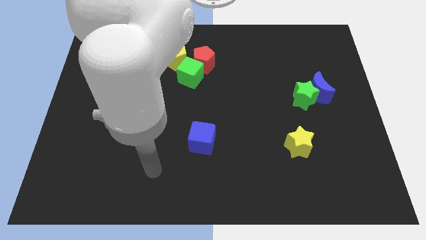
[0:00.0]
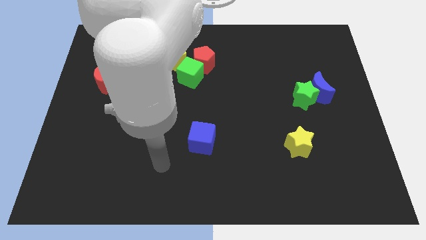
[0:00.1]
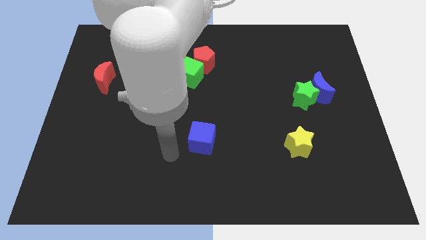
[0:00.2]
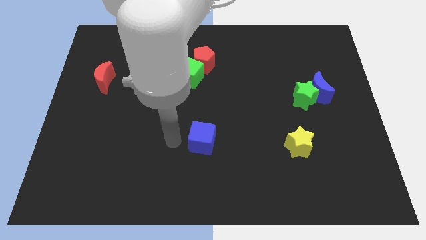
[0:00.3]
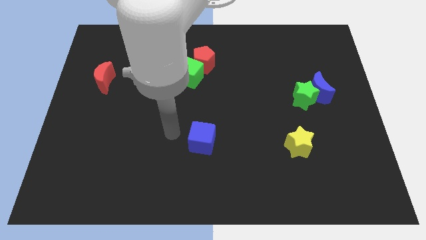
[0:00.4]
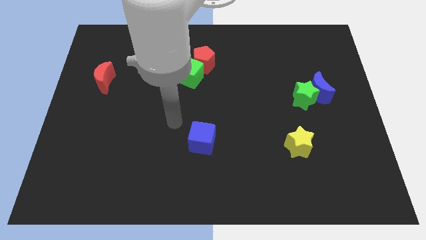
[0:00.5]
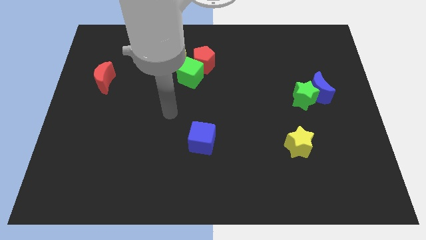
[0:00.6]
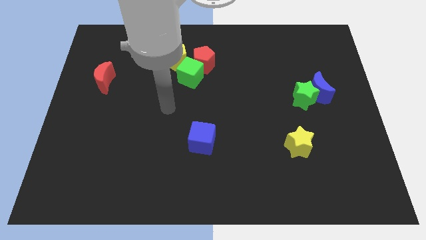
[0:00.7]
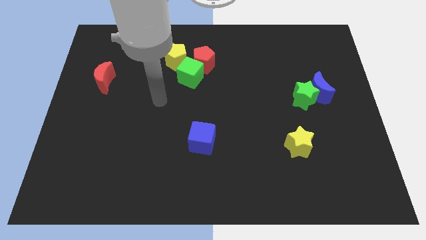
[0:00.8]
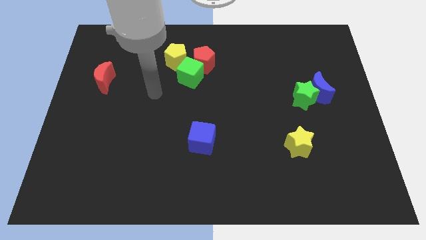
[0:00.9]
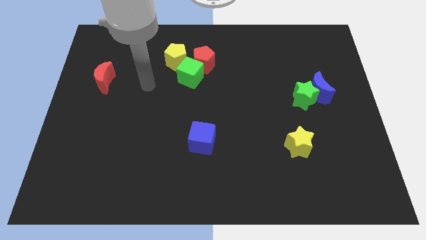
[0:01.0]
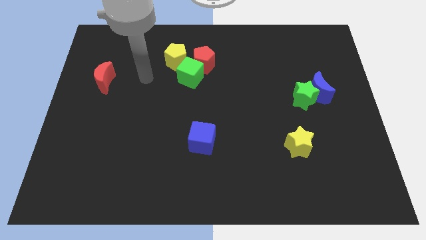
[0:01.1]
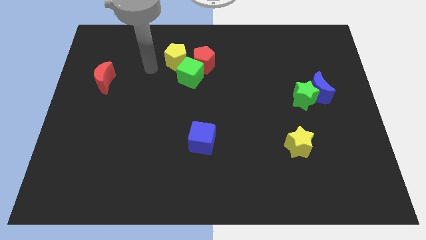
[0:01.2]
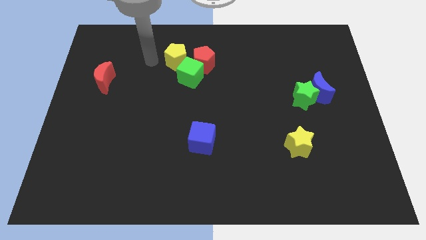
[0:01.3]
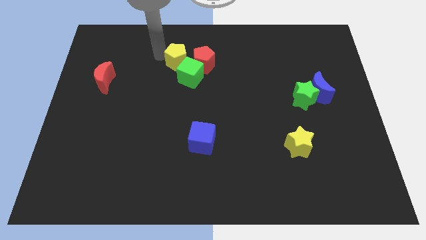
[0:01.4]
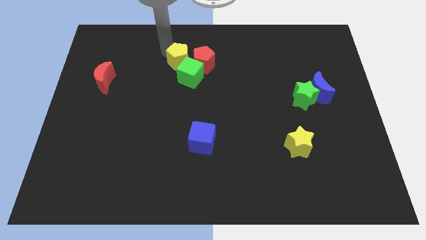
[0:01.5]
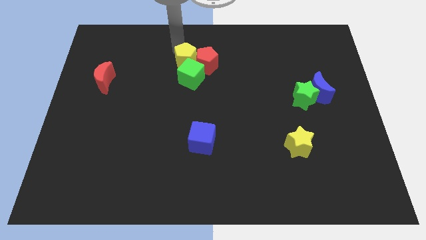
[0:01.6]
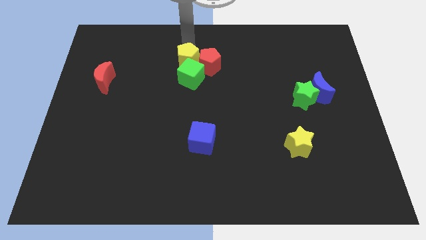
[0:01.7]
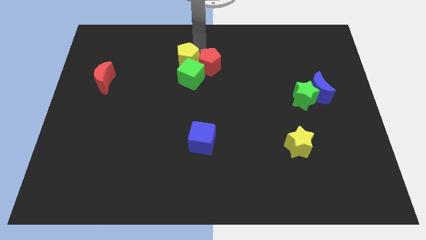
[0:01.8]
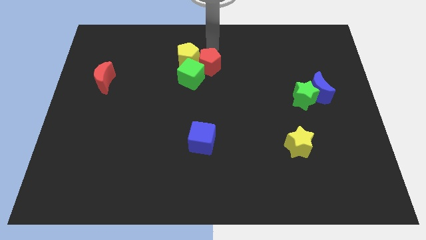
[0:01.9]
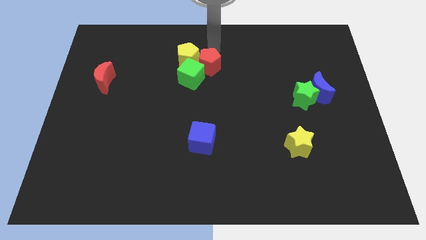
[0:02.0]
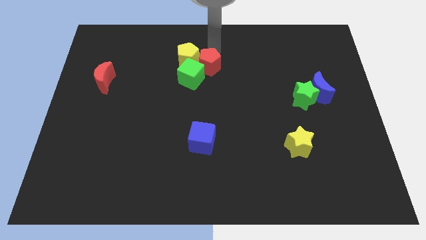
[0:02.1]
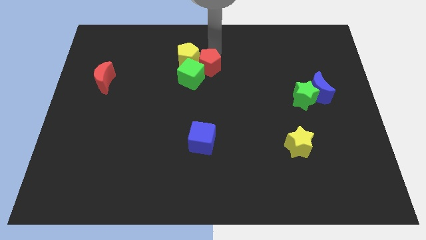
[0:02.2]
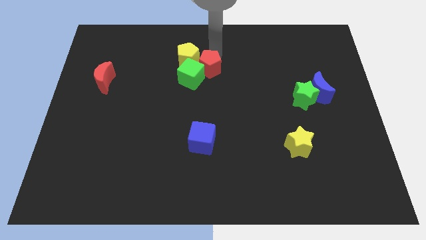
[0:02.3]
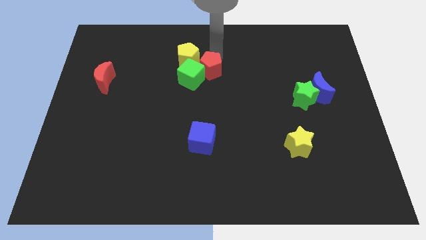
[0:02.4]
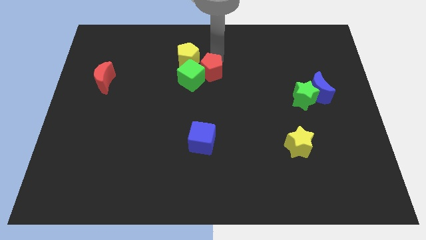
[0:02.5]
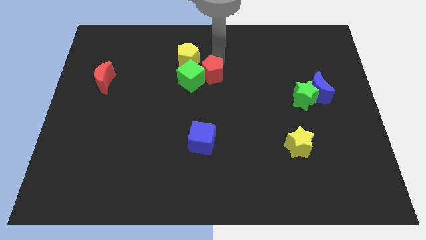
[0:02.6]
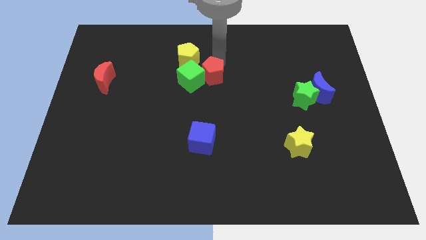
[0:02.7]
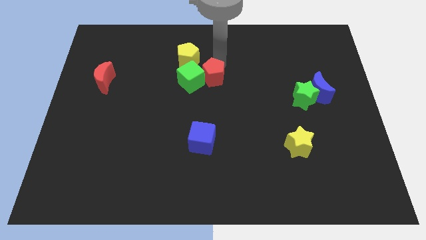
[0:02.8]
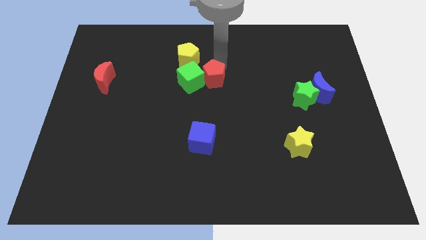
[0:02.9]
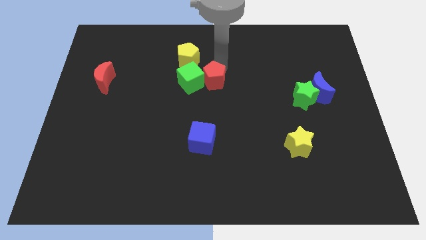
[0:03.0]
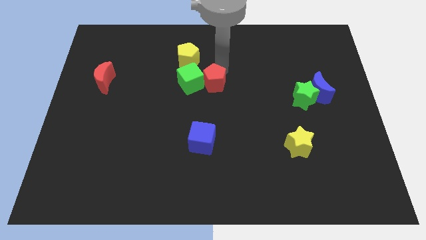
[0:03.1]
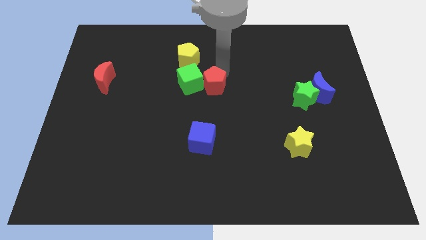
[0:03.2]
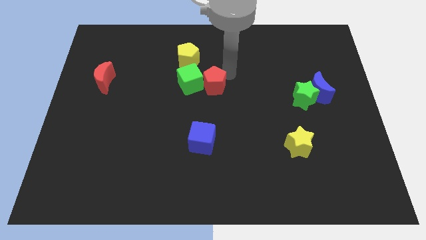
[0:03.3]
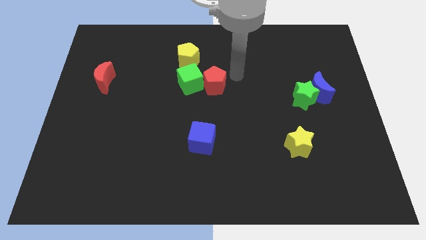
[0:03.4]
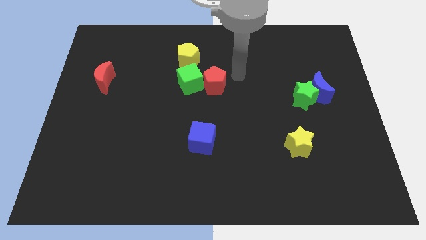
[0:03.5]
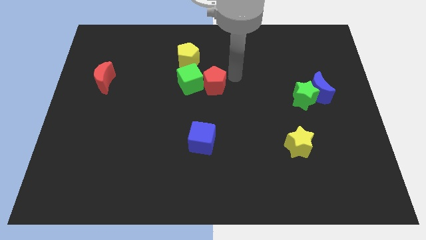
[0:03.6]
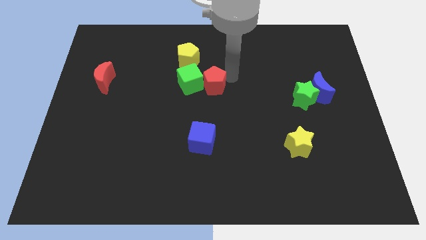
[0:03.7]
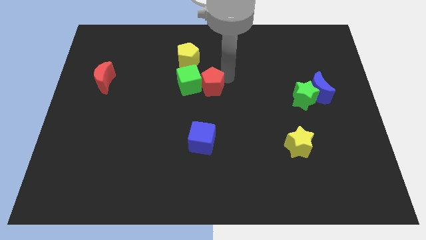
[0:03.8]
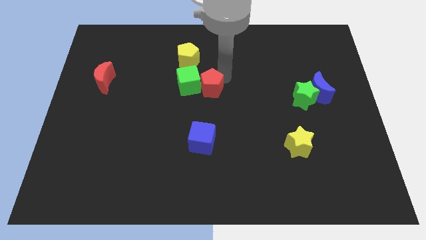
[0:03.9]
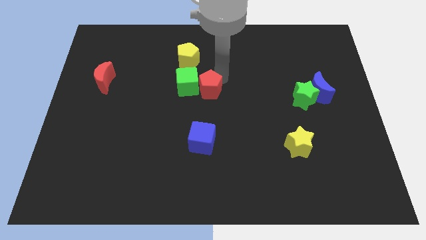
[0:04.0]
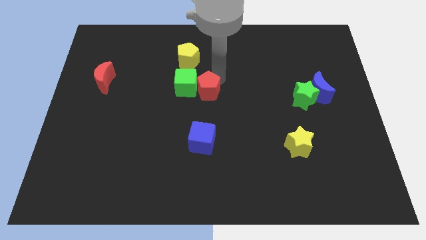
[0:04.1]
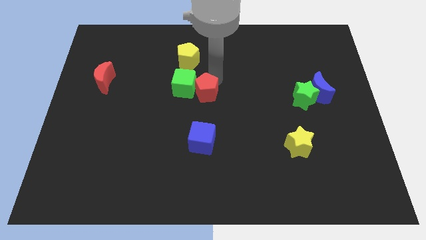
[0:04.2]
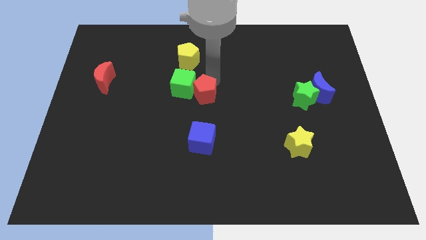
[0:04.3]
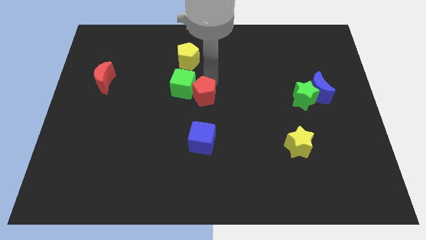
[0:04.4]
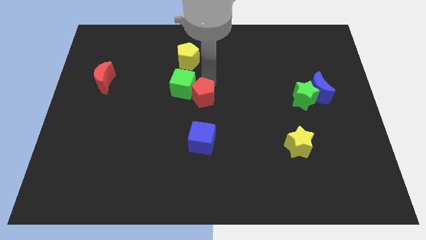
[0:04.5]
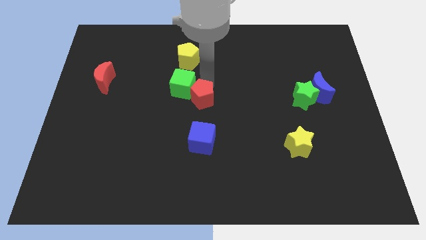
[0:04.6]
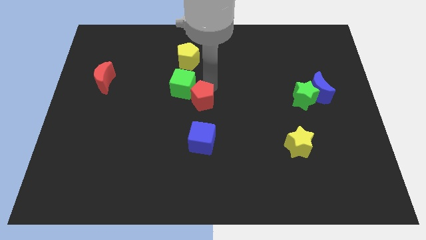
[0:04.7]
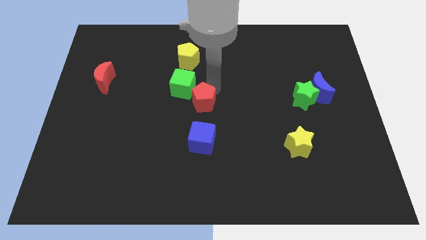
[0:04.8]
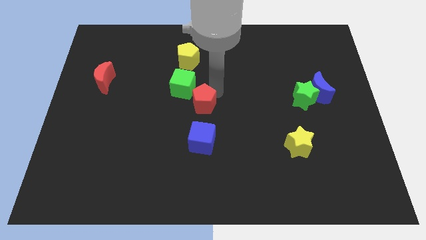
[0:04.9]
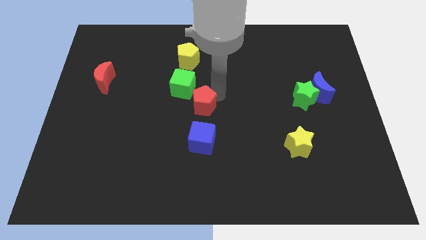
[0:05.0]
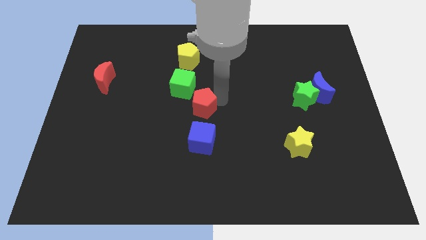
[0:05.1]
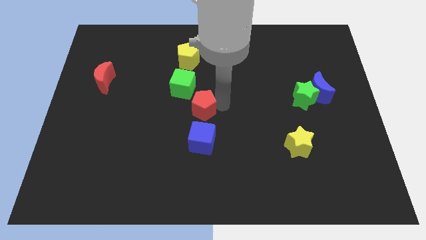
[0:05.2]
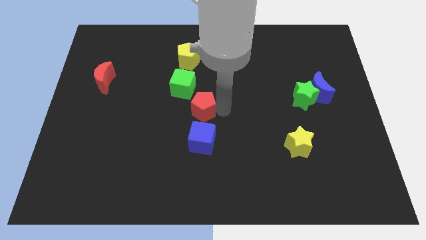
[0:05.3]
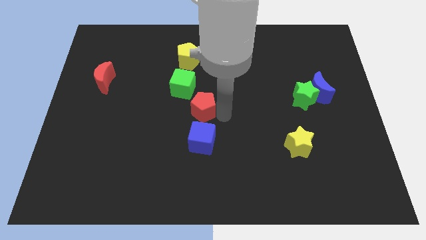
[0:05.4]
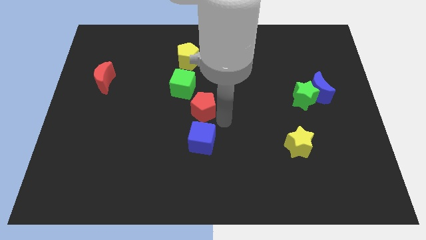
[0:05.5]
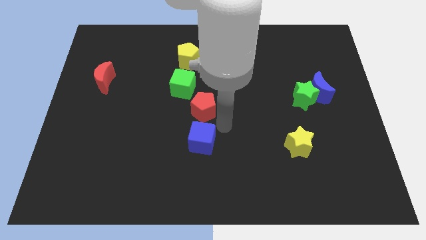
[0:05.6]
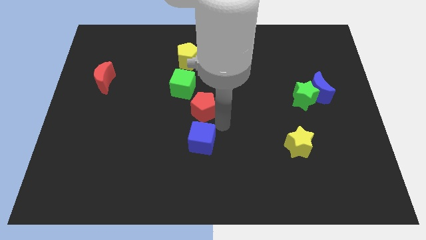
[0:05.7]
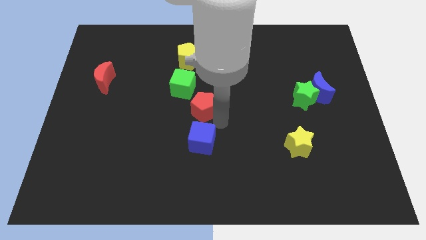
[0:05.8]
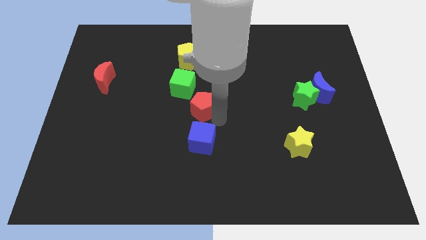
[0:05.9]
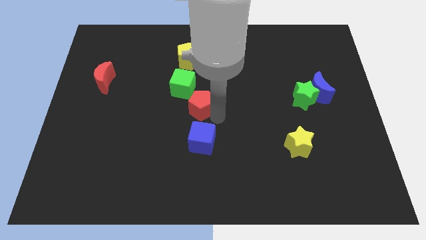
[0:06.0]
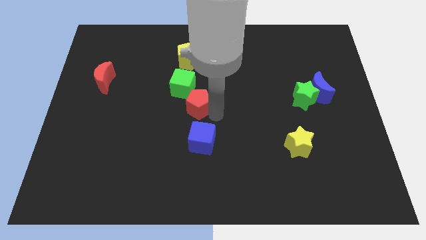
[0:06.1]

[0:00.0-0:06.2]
move the red pentagon a little down and to the left diagonally

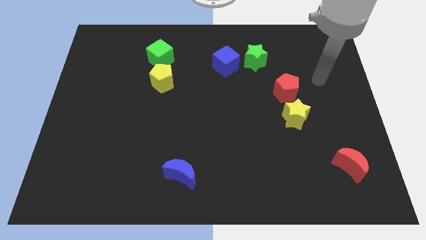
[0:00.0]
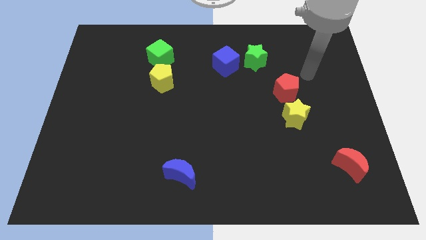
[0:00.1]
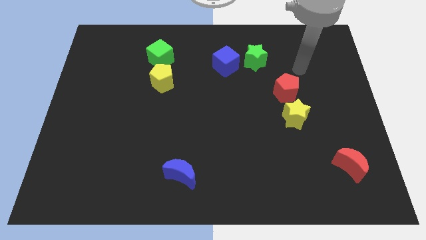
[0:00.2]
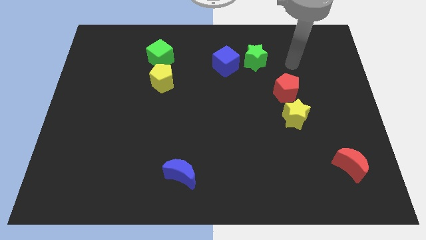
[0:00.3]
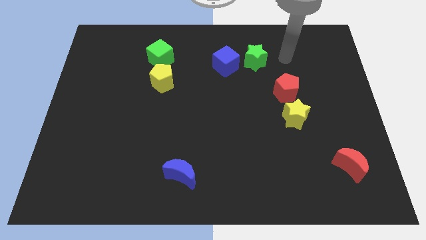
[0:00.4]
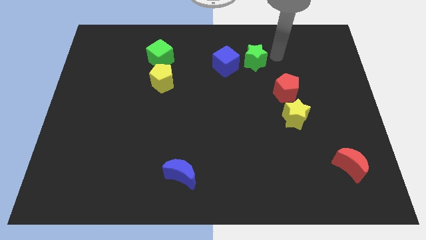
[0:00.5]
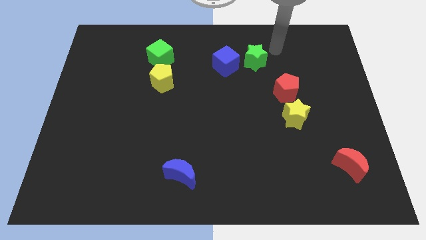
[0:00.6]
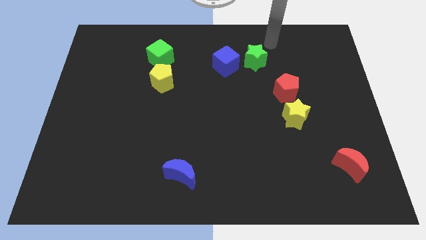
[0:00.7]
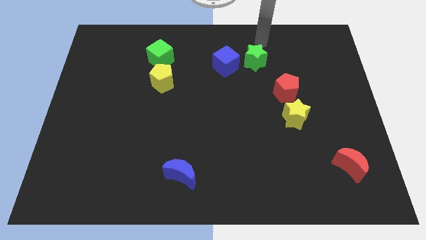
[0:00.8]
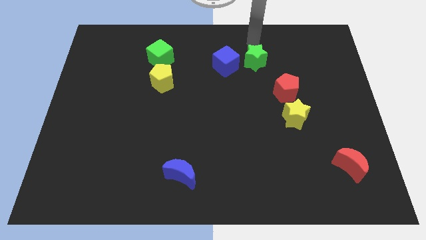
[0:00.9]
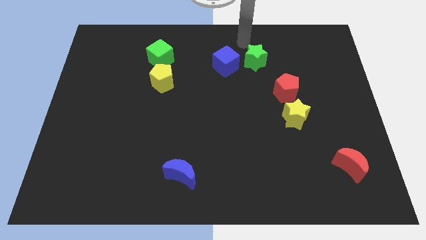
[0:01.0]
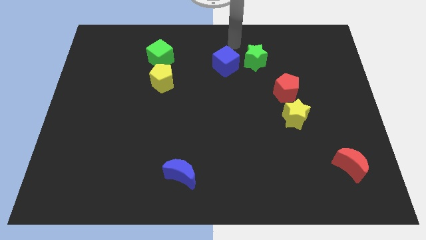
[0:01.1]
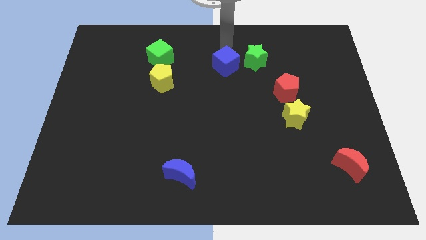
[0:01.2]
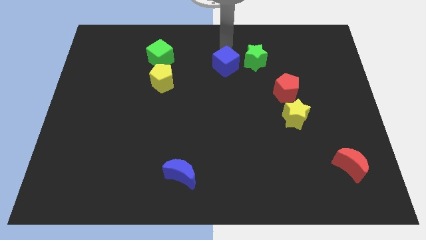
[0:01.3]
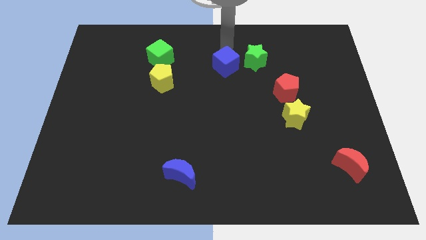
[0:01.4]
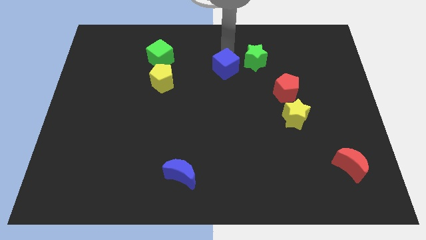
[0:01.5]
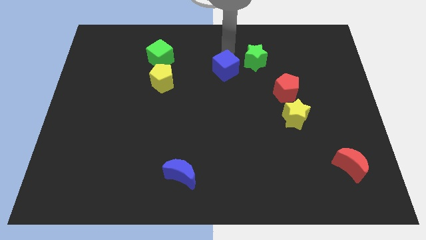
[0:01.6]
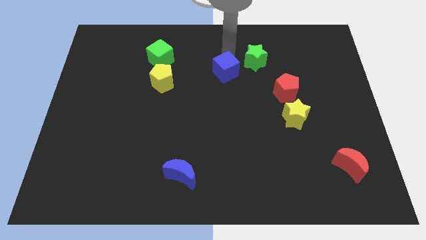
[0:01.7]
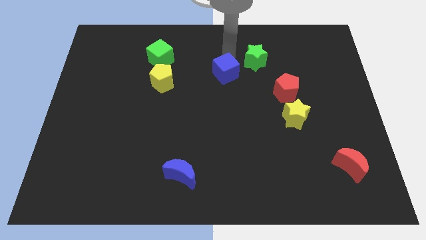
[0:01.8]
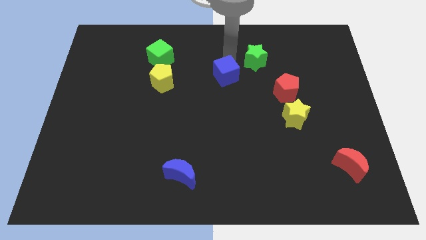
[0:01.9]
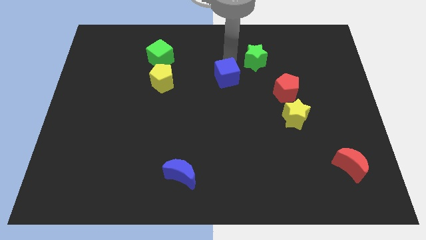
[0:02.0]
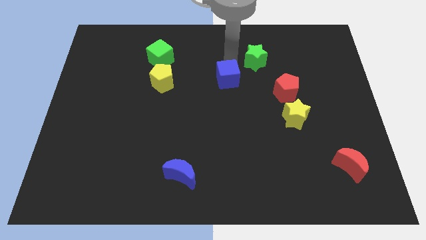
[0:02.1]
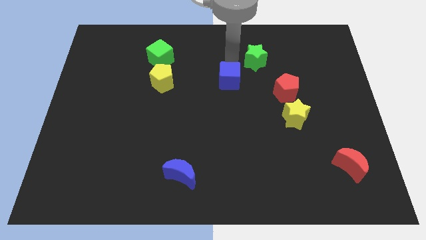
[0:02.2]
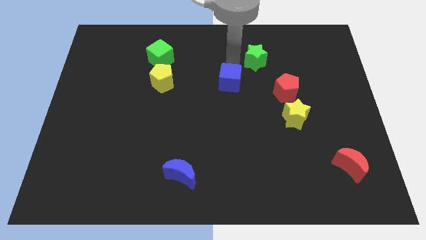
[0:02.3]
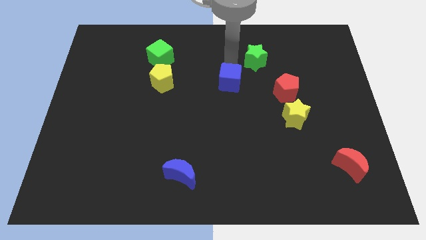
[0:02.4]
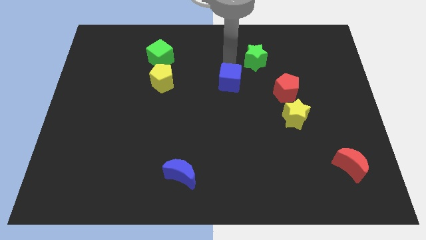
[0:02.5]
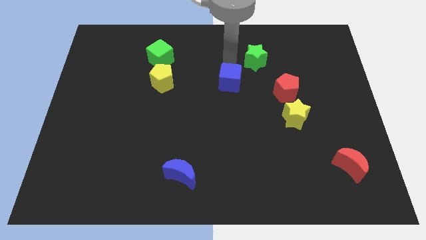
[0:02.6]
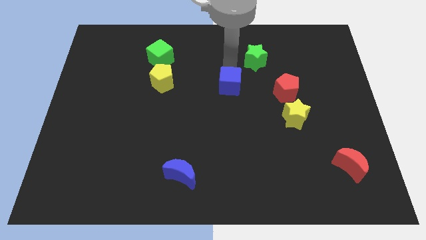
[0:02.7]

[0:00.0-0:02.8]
slide the blue cube somewhat down
